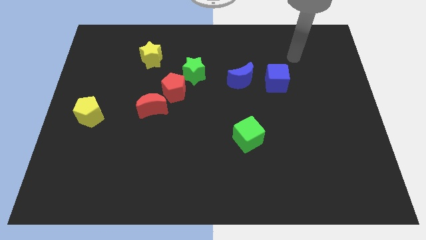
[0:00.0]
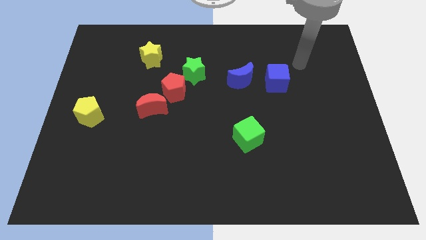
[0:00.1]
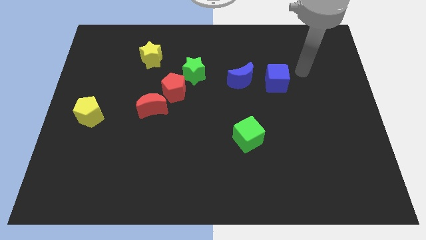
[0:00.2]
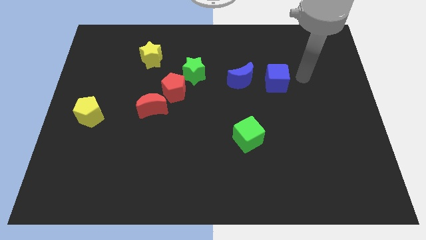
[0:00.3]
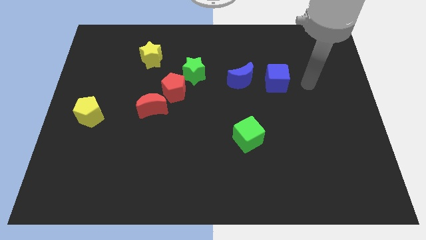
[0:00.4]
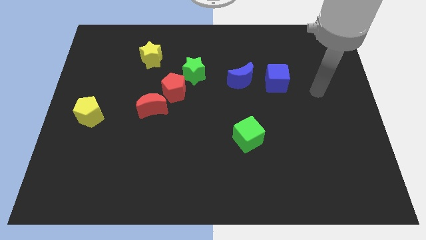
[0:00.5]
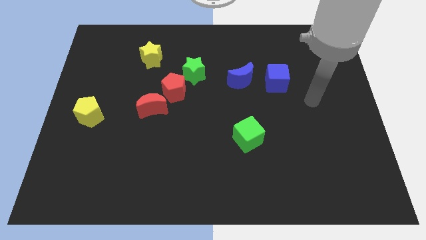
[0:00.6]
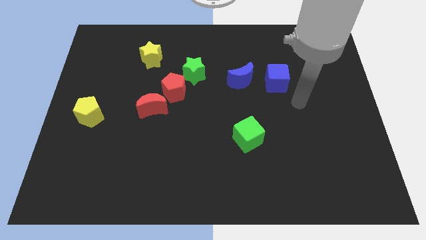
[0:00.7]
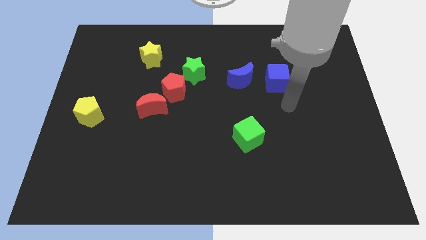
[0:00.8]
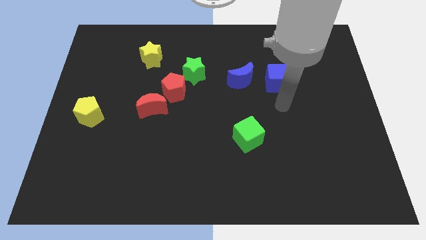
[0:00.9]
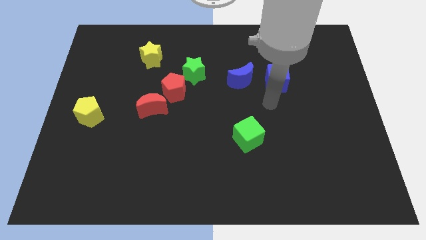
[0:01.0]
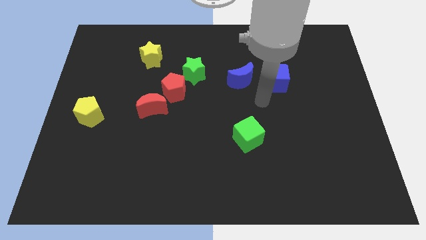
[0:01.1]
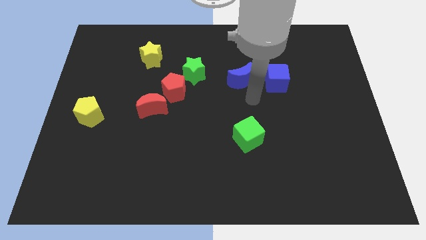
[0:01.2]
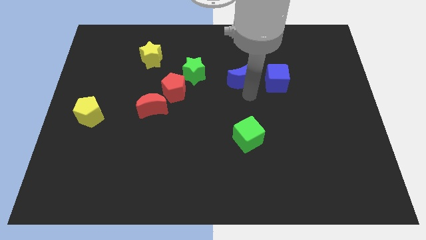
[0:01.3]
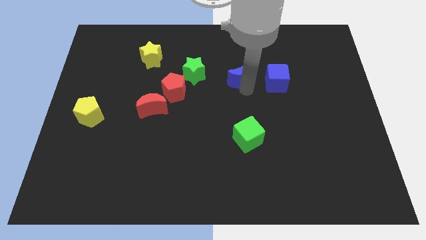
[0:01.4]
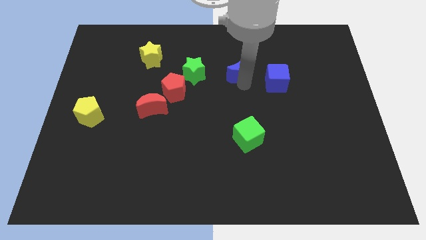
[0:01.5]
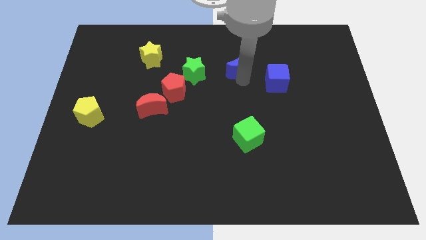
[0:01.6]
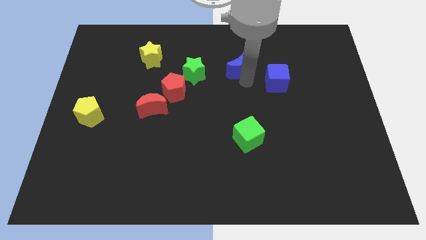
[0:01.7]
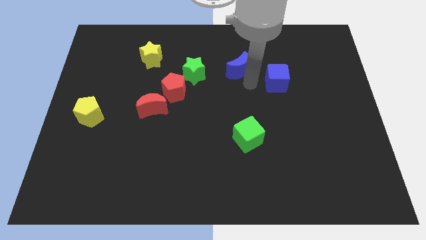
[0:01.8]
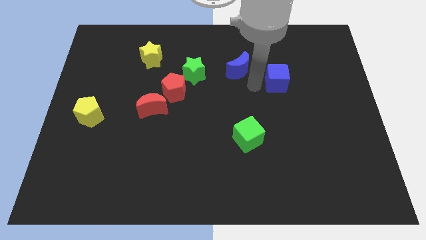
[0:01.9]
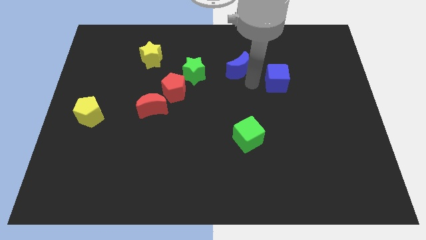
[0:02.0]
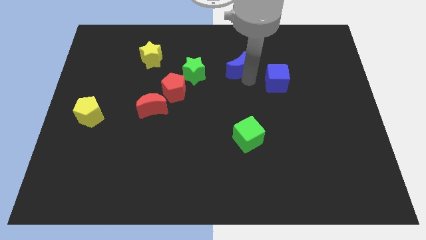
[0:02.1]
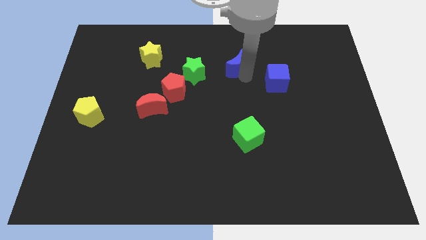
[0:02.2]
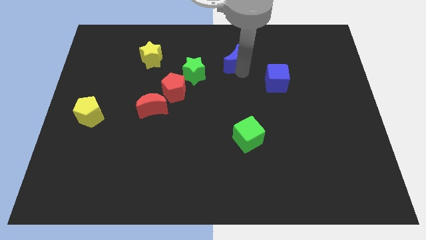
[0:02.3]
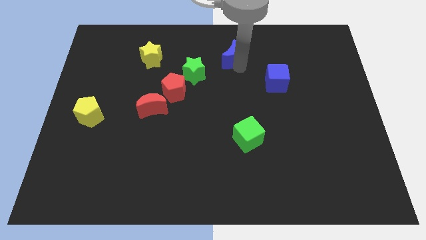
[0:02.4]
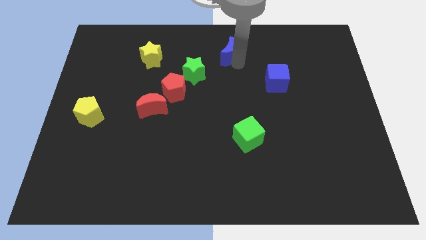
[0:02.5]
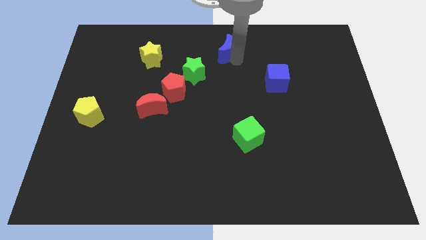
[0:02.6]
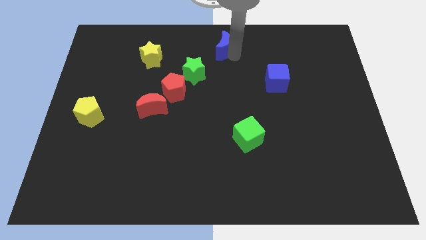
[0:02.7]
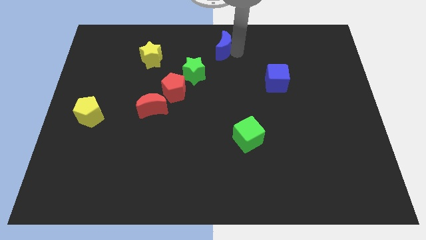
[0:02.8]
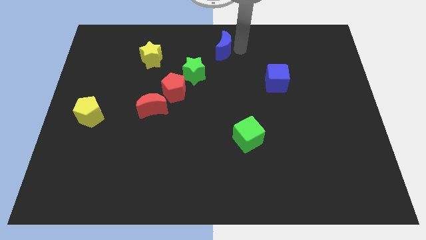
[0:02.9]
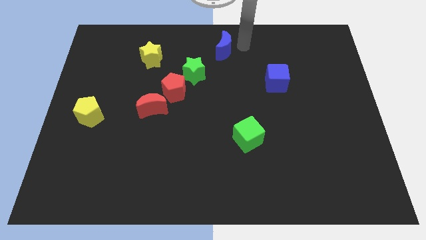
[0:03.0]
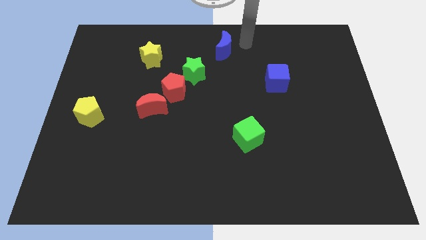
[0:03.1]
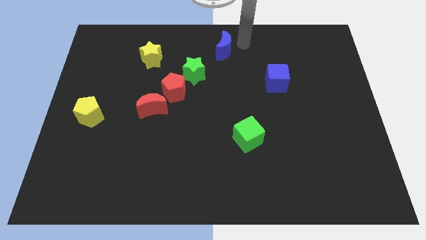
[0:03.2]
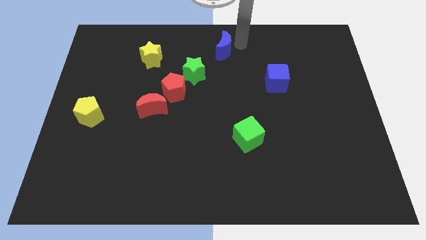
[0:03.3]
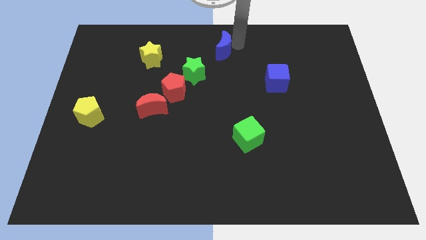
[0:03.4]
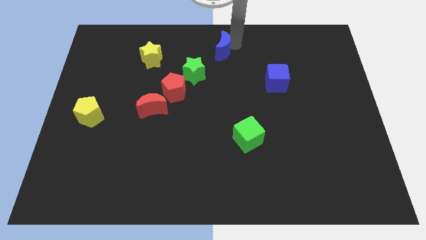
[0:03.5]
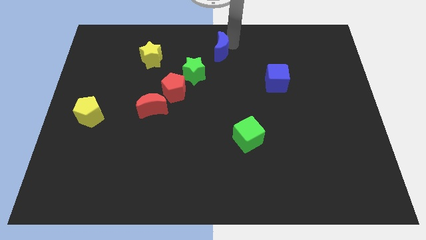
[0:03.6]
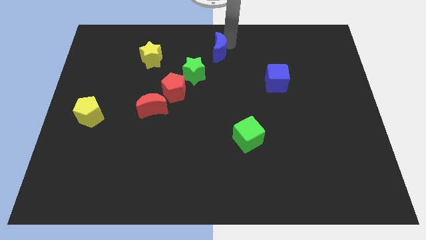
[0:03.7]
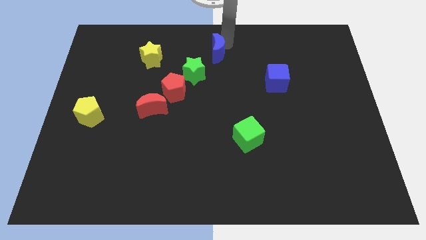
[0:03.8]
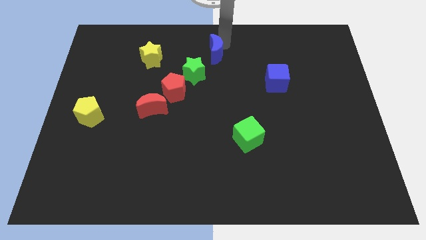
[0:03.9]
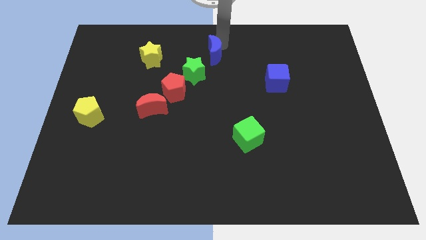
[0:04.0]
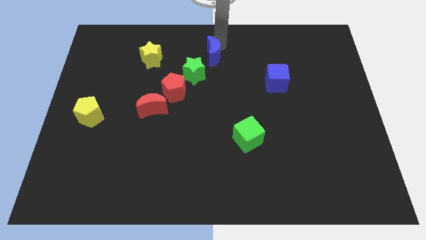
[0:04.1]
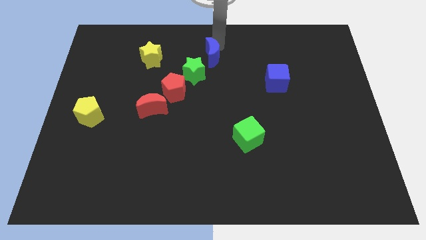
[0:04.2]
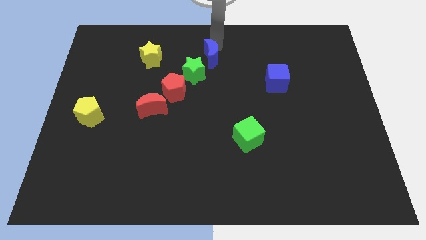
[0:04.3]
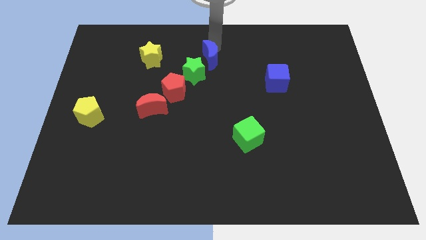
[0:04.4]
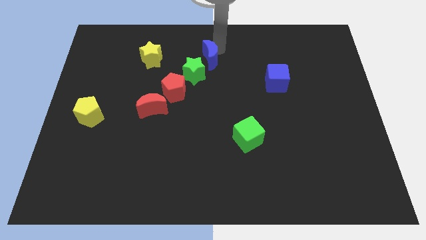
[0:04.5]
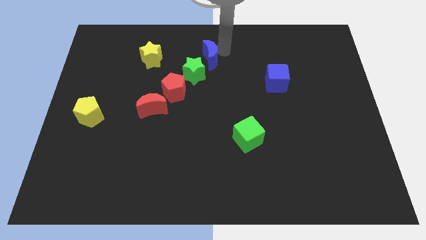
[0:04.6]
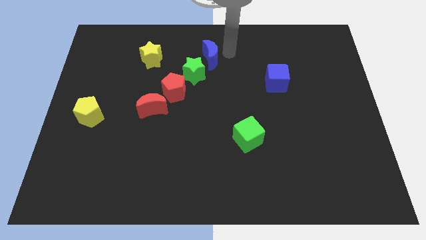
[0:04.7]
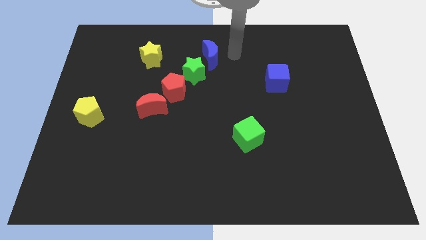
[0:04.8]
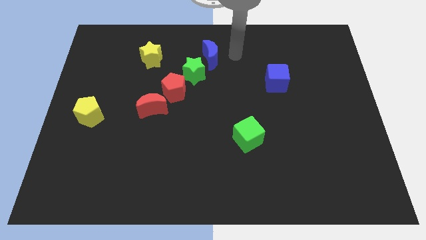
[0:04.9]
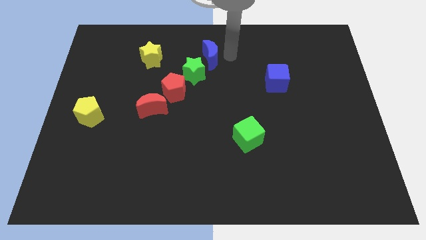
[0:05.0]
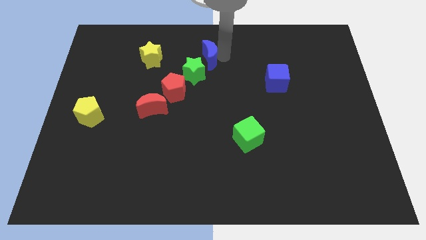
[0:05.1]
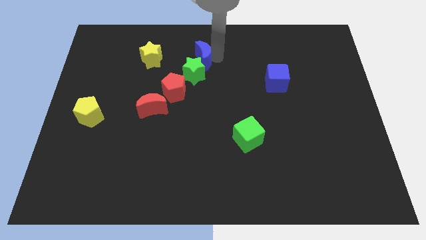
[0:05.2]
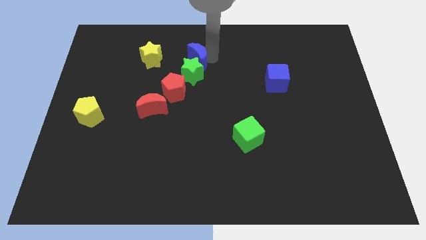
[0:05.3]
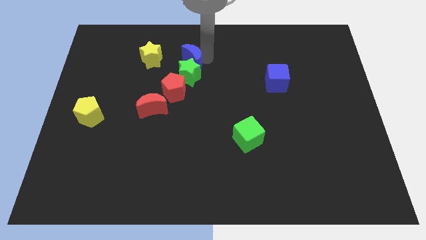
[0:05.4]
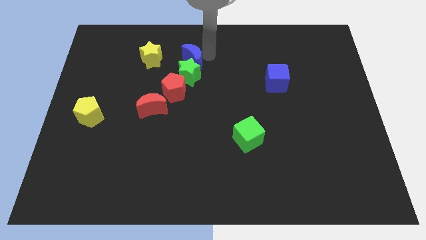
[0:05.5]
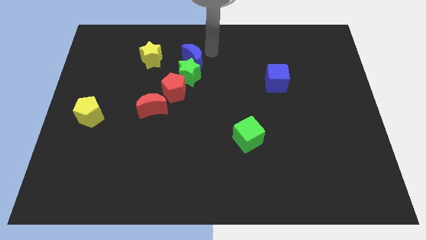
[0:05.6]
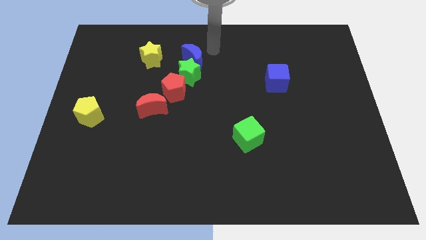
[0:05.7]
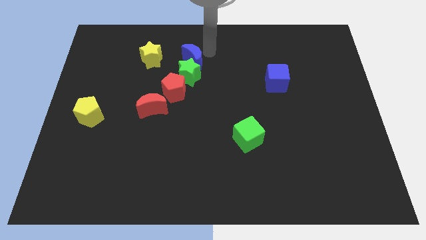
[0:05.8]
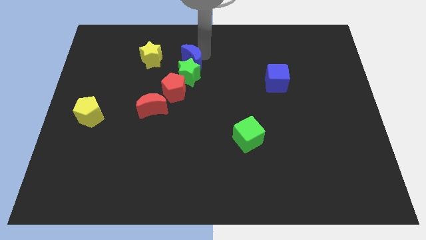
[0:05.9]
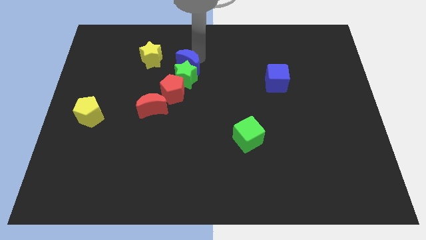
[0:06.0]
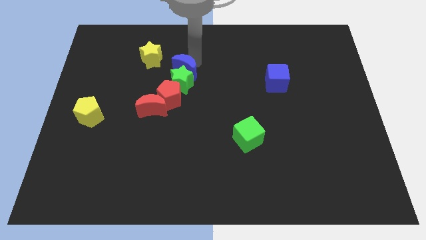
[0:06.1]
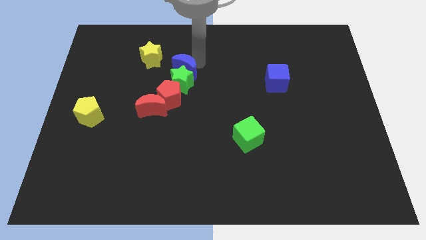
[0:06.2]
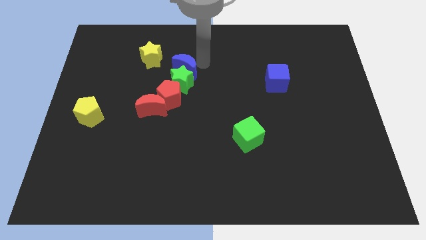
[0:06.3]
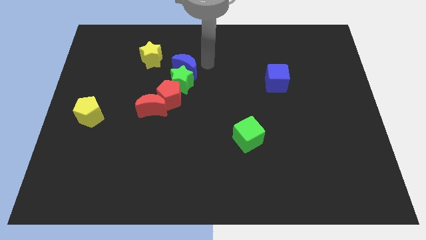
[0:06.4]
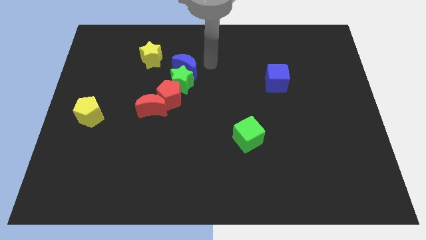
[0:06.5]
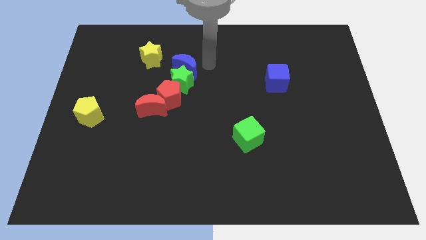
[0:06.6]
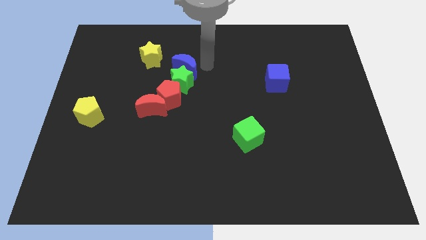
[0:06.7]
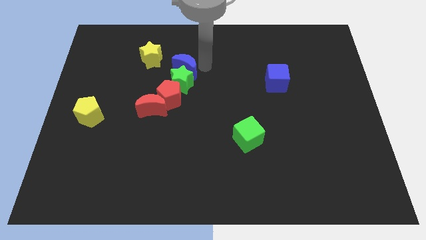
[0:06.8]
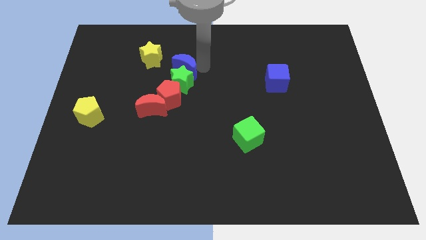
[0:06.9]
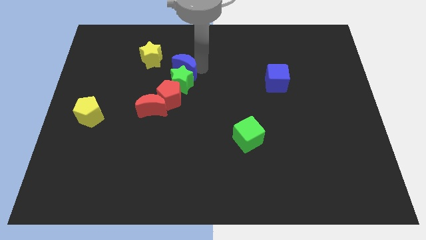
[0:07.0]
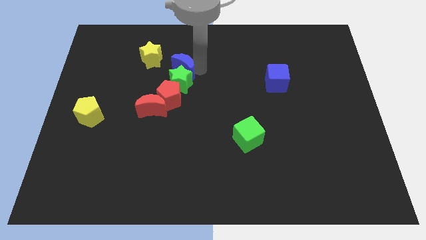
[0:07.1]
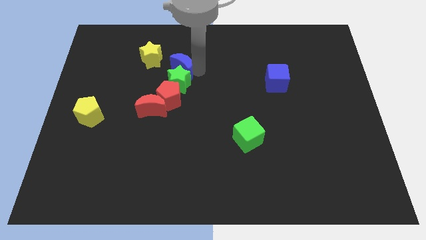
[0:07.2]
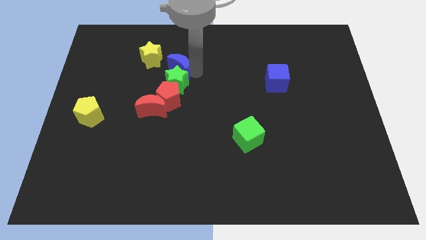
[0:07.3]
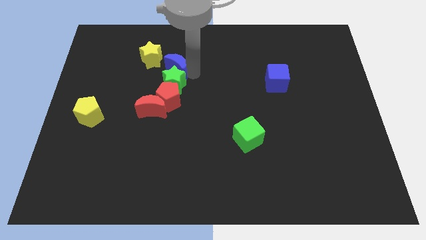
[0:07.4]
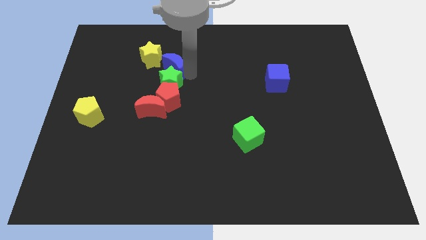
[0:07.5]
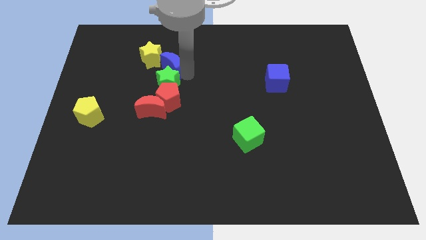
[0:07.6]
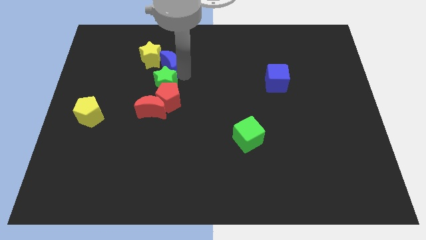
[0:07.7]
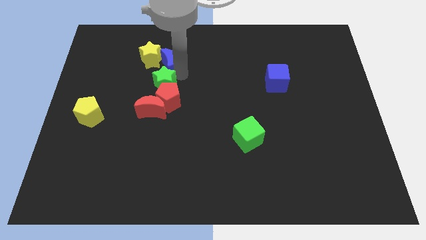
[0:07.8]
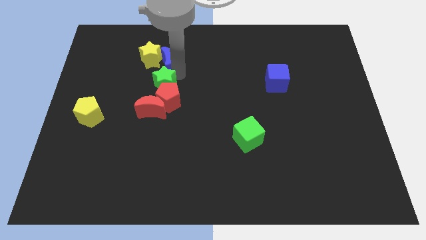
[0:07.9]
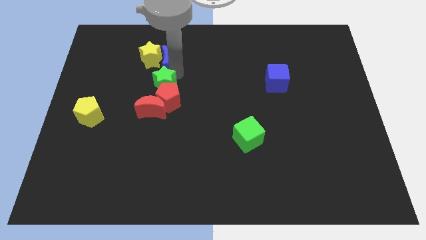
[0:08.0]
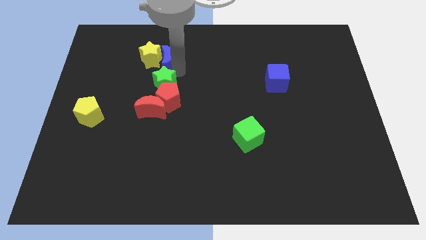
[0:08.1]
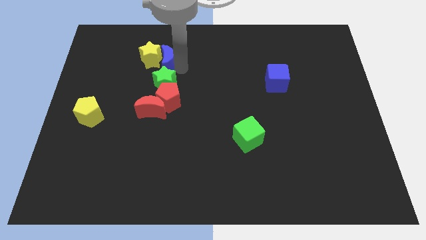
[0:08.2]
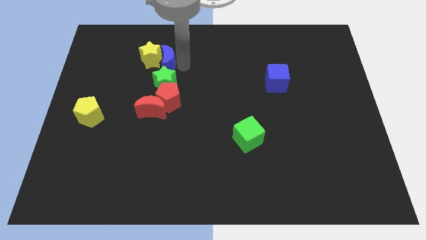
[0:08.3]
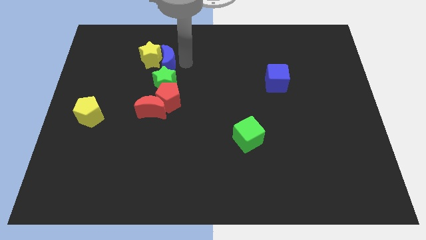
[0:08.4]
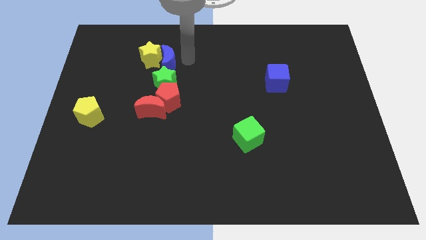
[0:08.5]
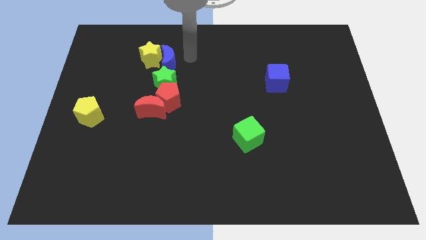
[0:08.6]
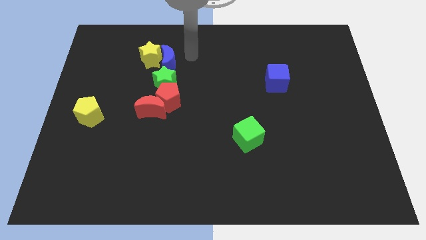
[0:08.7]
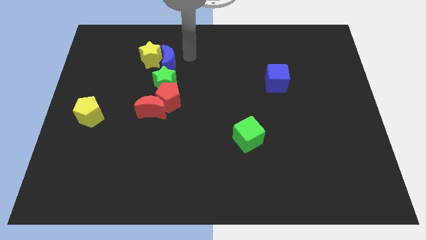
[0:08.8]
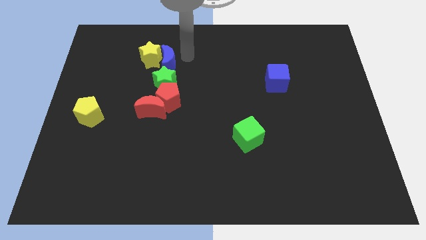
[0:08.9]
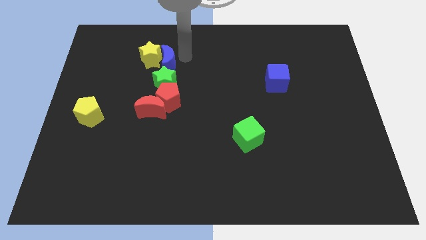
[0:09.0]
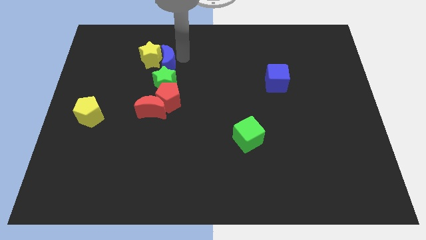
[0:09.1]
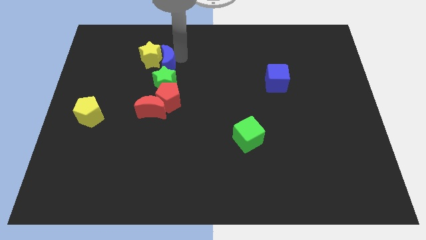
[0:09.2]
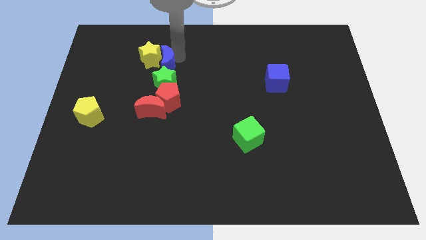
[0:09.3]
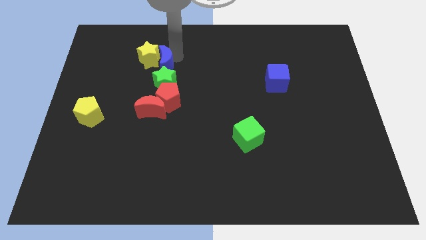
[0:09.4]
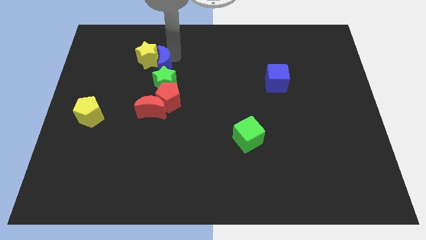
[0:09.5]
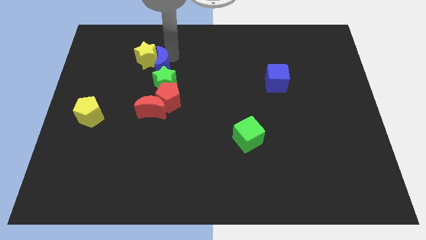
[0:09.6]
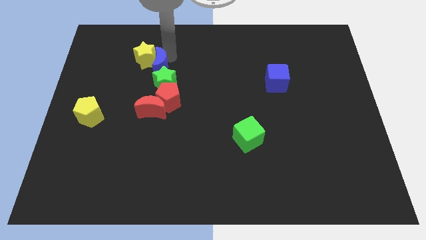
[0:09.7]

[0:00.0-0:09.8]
slide the blue moon left
